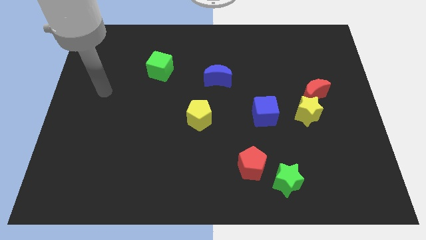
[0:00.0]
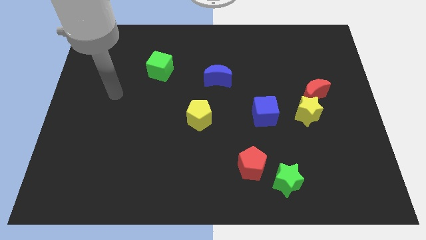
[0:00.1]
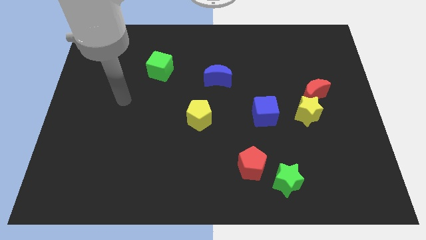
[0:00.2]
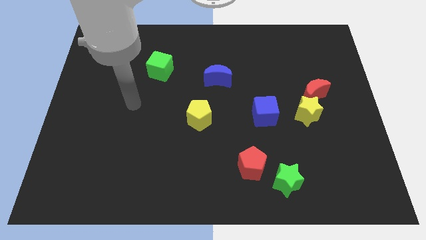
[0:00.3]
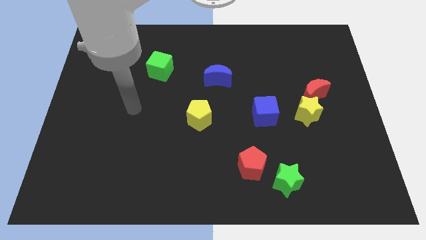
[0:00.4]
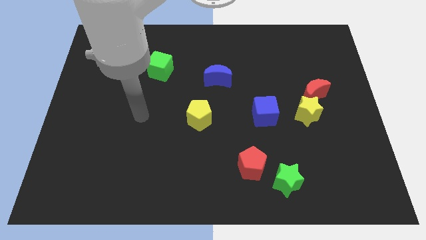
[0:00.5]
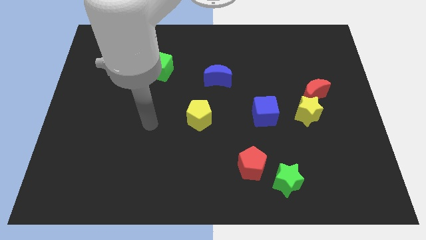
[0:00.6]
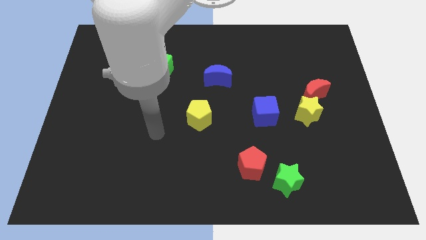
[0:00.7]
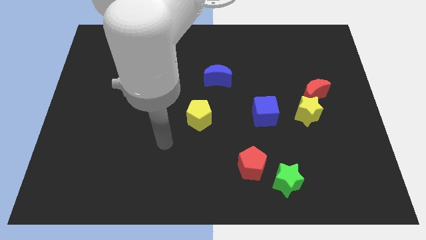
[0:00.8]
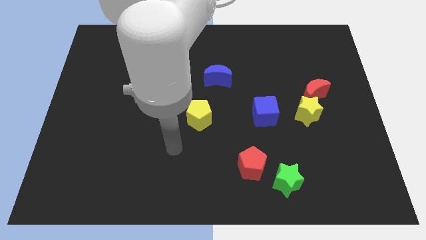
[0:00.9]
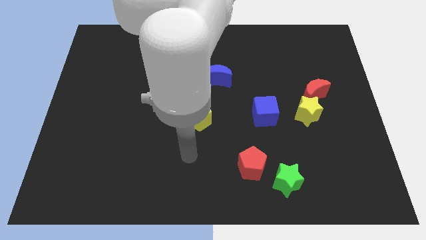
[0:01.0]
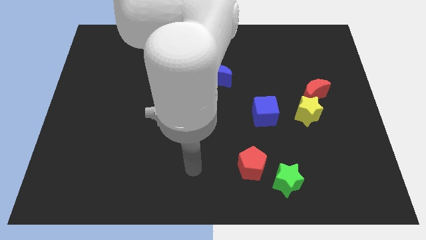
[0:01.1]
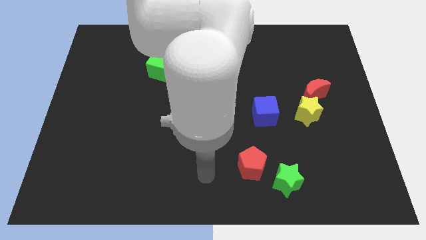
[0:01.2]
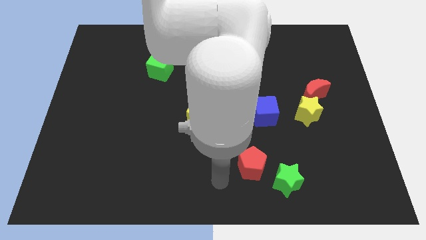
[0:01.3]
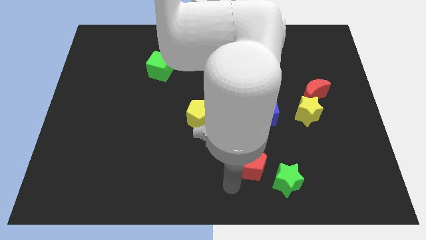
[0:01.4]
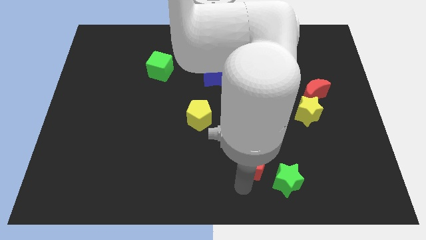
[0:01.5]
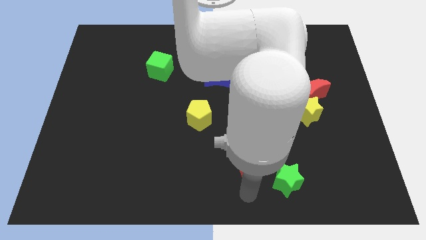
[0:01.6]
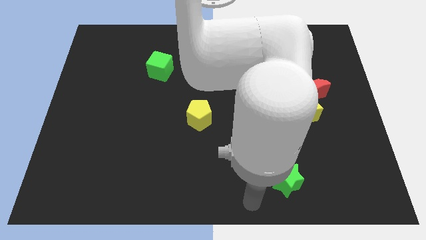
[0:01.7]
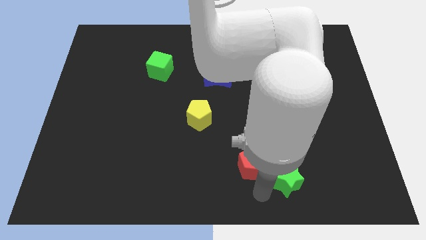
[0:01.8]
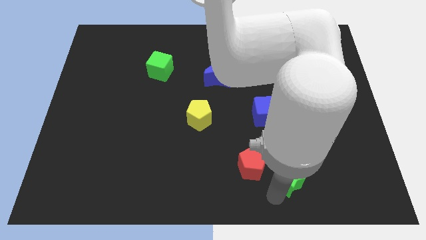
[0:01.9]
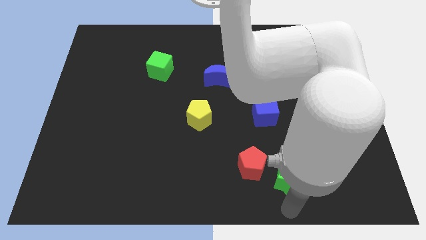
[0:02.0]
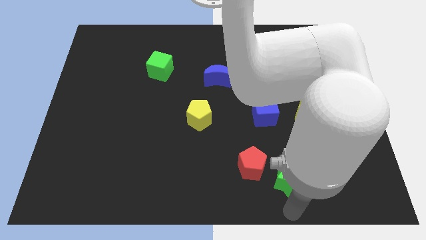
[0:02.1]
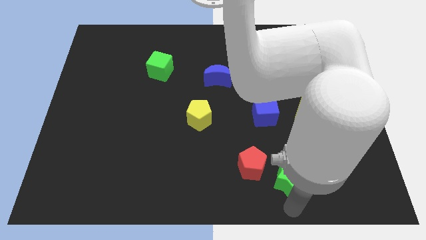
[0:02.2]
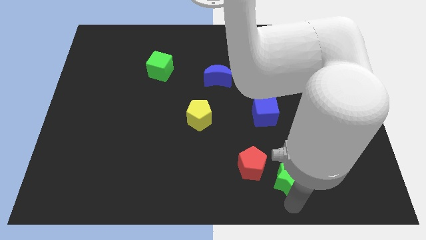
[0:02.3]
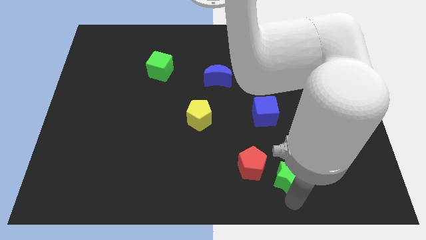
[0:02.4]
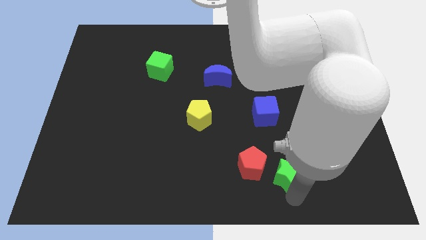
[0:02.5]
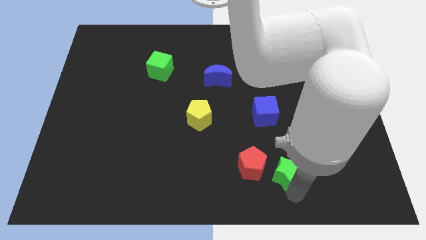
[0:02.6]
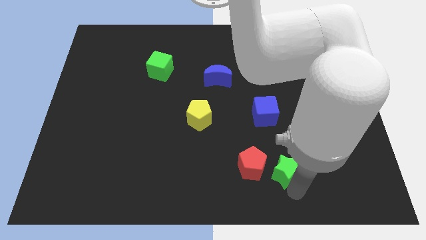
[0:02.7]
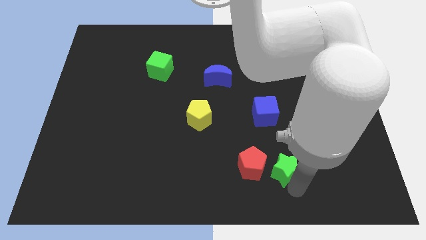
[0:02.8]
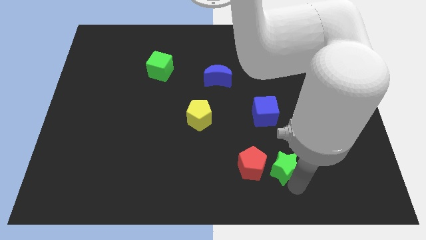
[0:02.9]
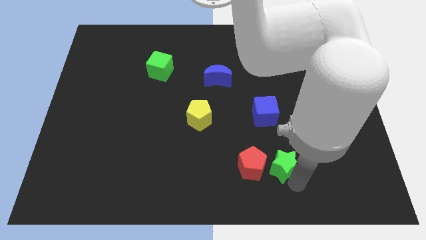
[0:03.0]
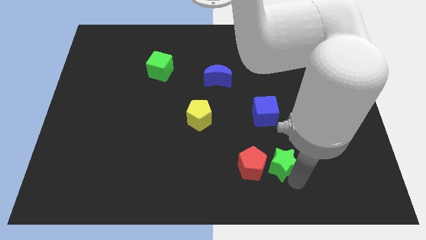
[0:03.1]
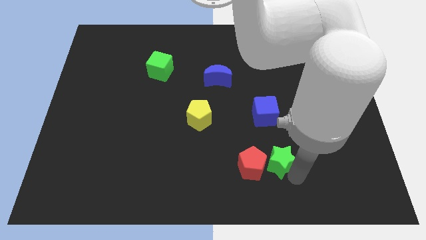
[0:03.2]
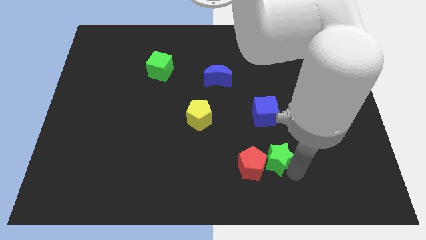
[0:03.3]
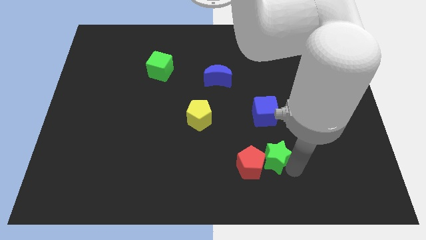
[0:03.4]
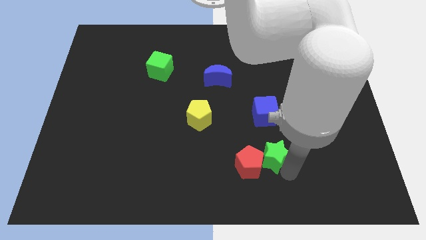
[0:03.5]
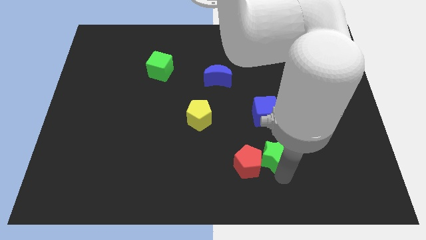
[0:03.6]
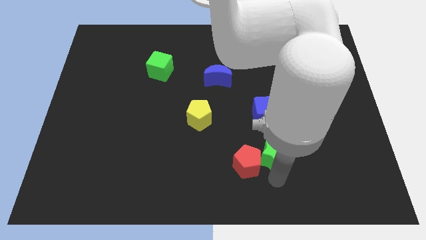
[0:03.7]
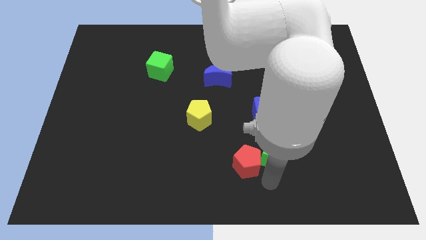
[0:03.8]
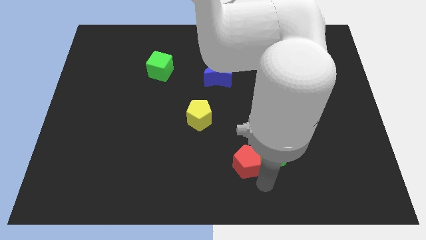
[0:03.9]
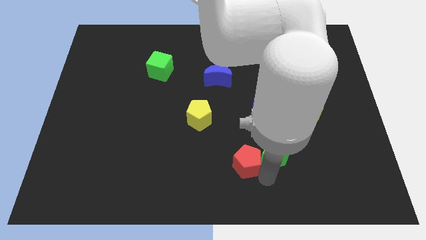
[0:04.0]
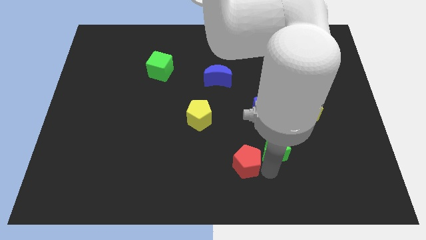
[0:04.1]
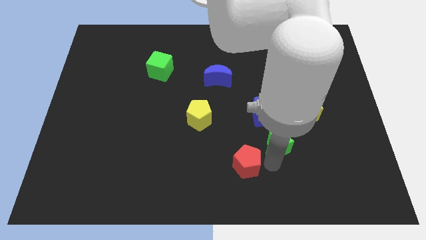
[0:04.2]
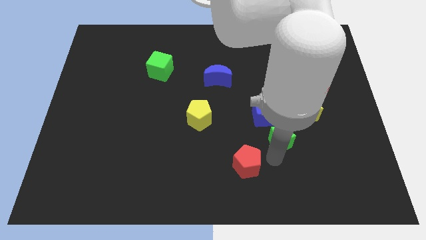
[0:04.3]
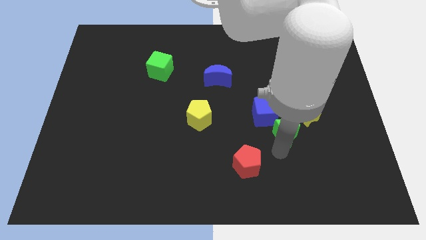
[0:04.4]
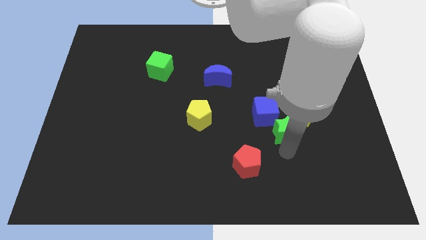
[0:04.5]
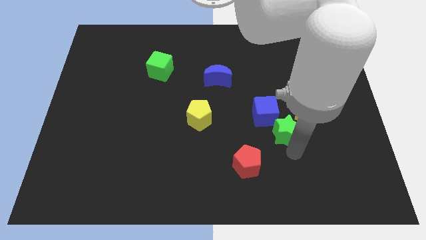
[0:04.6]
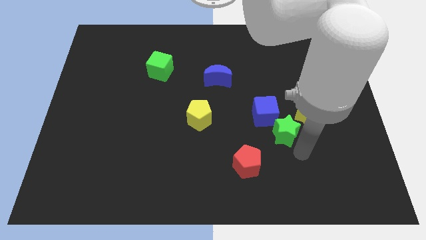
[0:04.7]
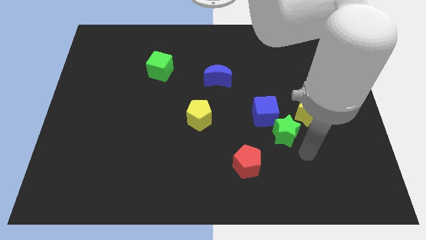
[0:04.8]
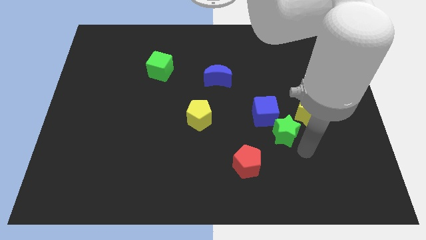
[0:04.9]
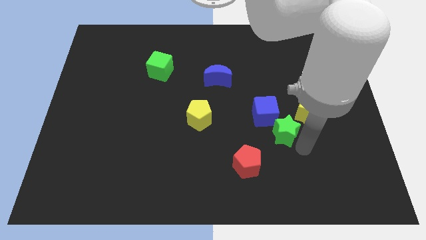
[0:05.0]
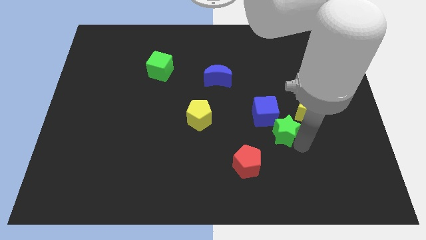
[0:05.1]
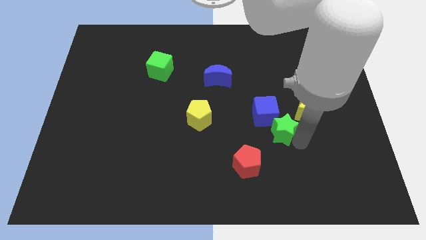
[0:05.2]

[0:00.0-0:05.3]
slide the green star towards the blue cube

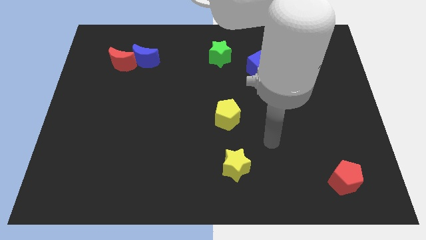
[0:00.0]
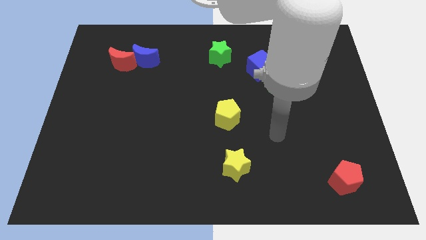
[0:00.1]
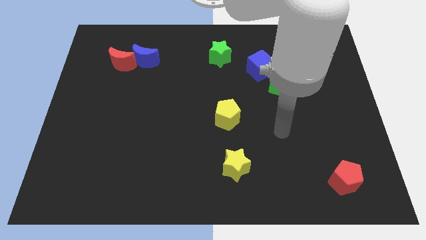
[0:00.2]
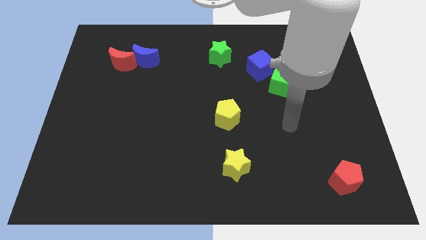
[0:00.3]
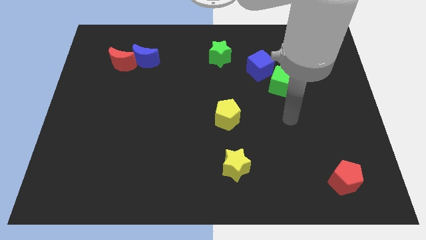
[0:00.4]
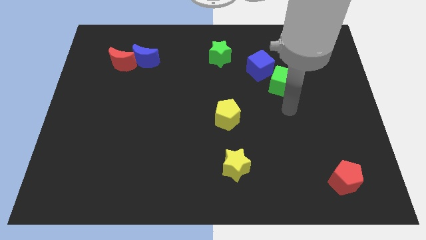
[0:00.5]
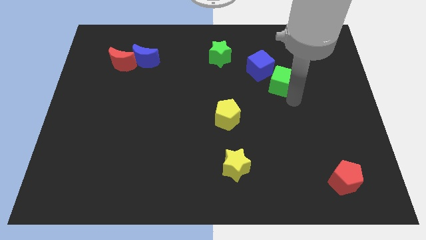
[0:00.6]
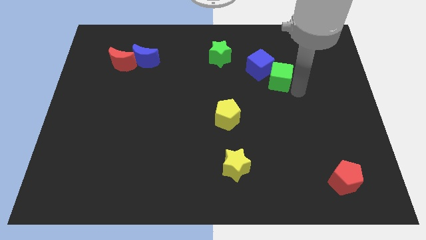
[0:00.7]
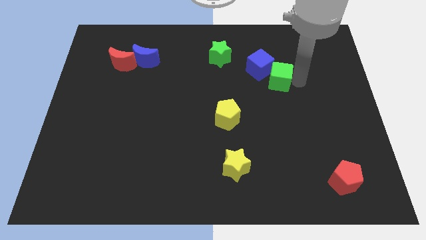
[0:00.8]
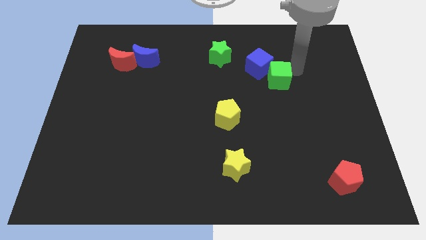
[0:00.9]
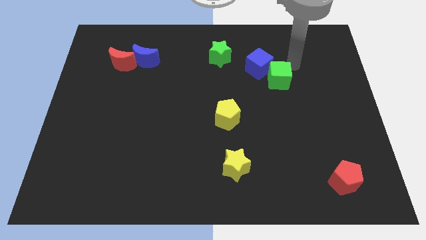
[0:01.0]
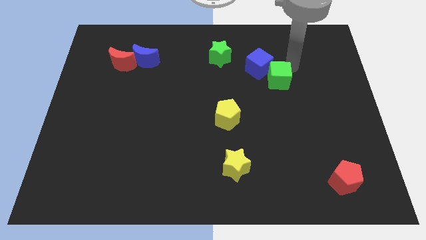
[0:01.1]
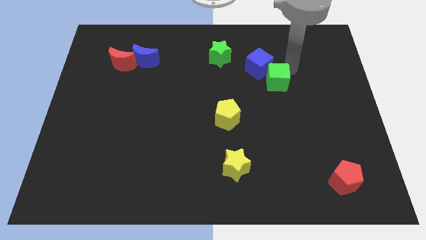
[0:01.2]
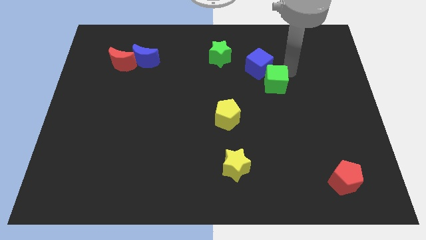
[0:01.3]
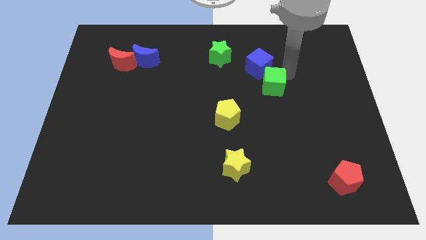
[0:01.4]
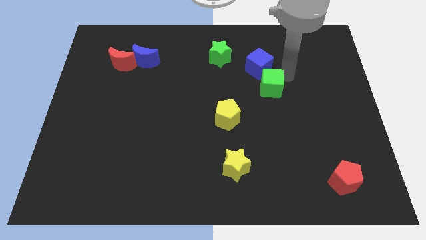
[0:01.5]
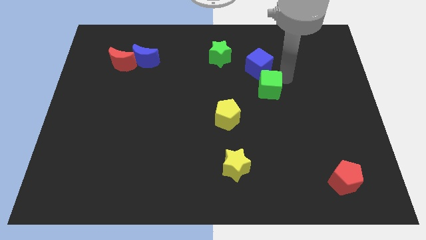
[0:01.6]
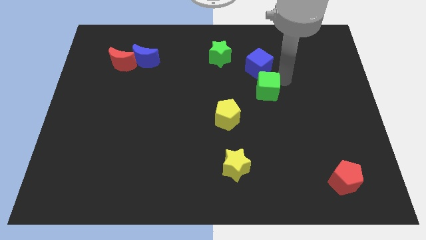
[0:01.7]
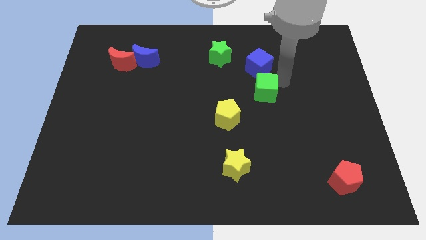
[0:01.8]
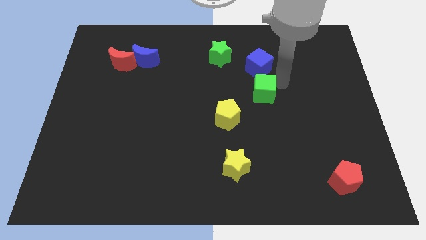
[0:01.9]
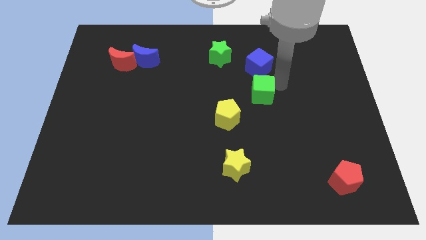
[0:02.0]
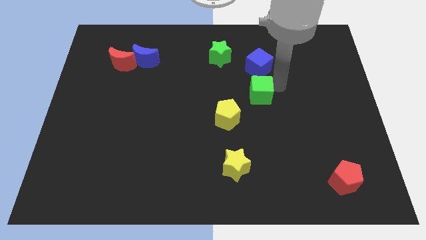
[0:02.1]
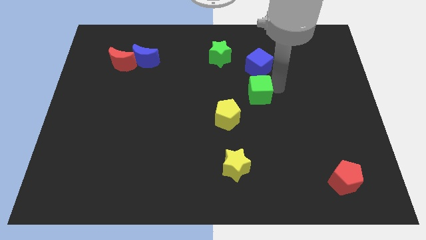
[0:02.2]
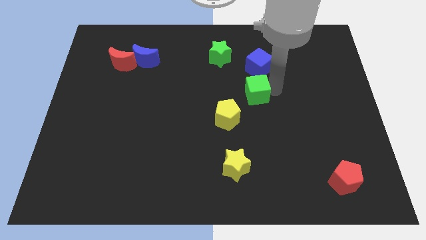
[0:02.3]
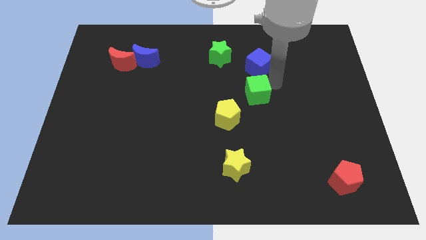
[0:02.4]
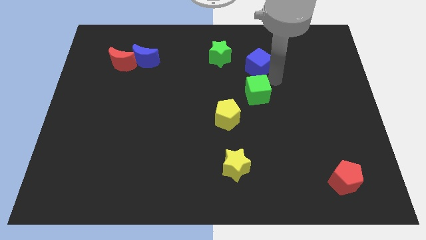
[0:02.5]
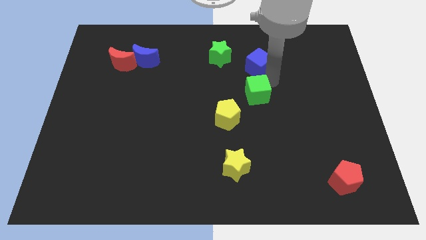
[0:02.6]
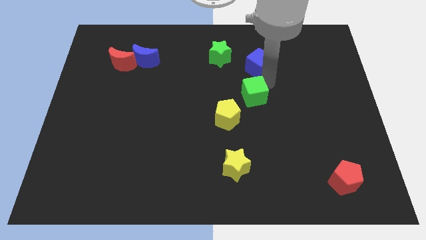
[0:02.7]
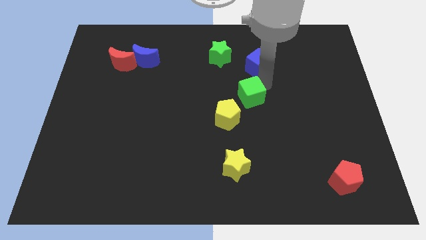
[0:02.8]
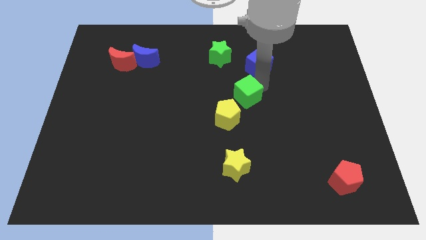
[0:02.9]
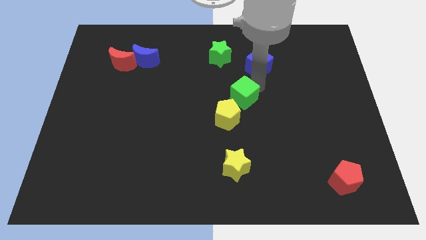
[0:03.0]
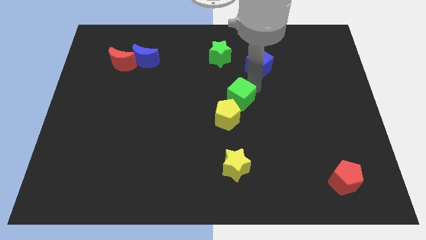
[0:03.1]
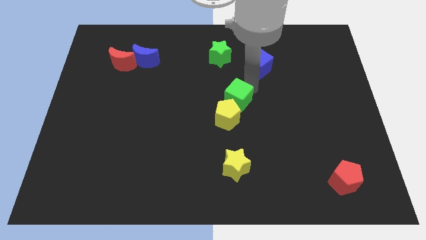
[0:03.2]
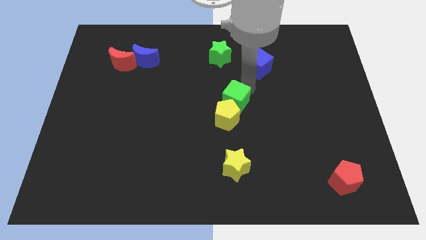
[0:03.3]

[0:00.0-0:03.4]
put the green cube to the yellow pentagon
